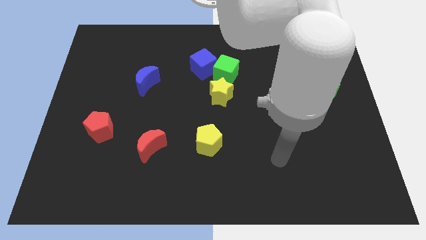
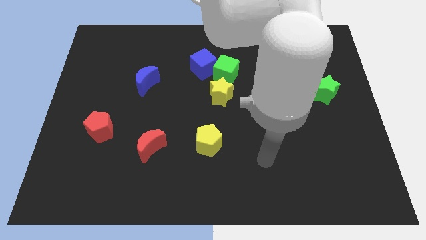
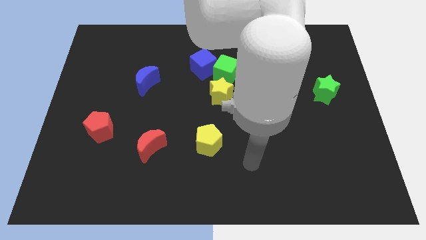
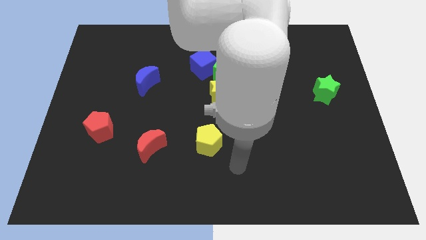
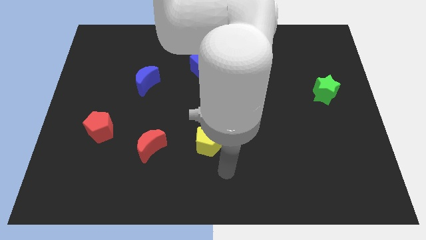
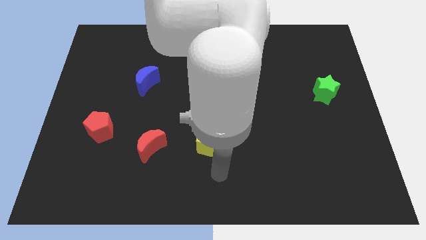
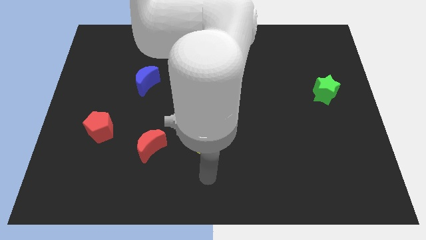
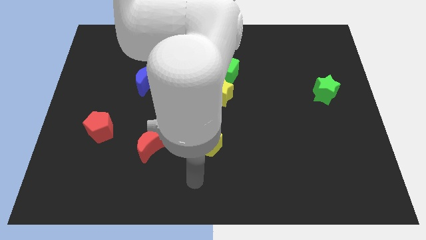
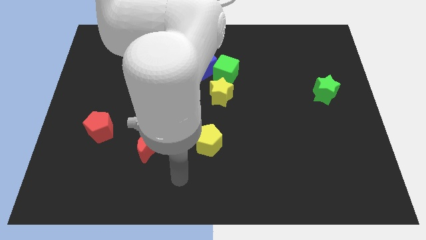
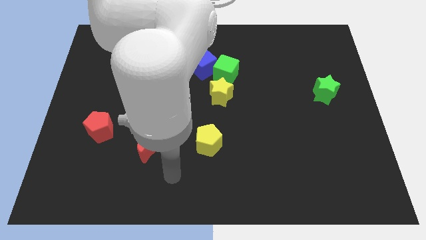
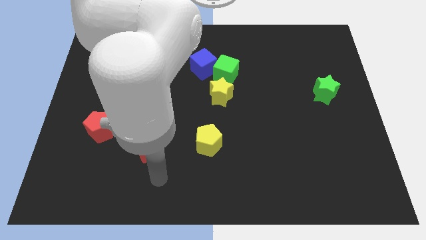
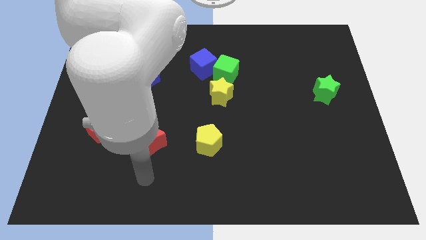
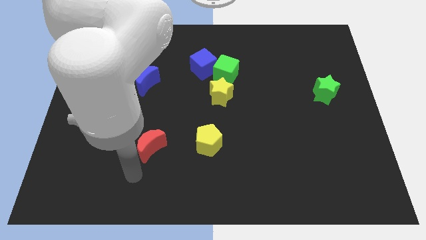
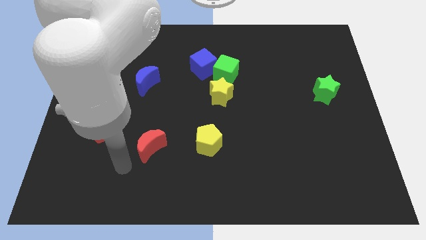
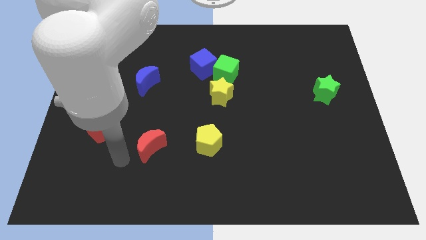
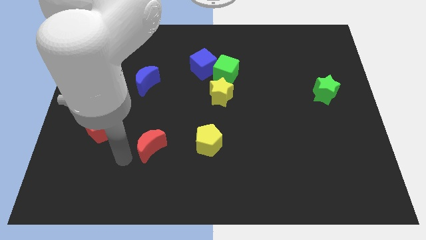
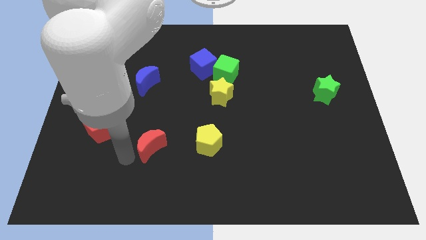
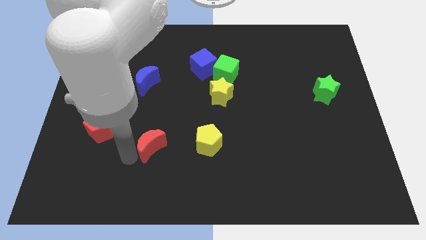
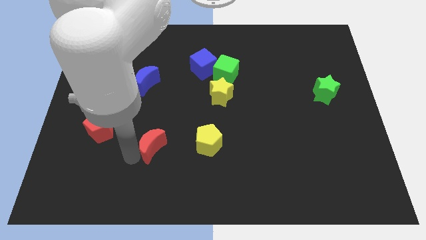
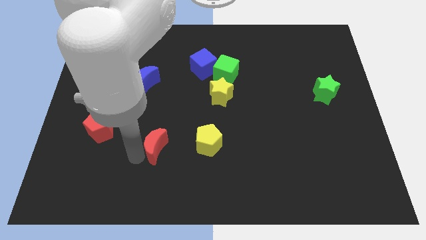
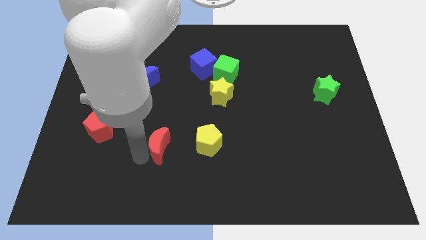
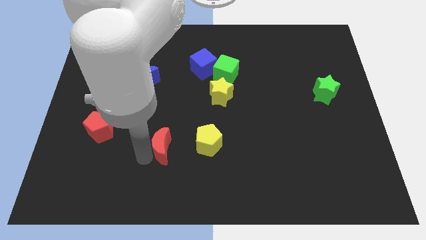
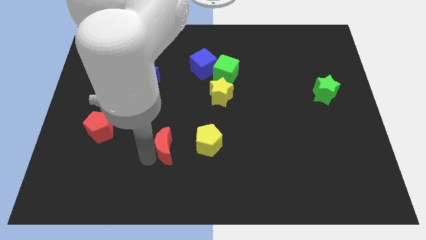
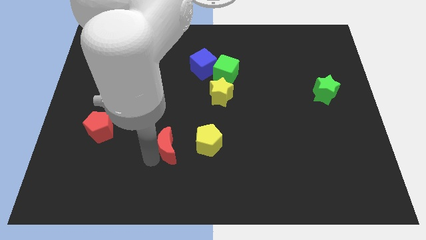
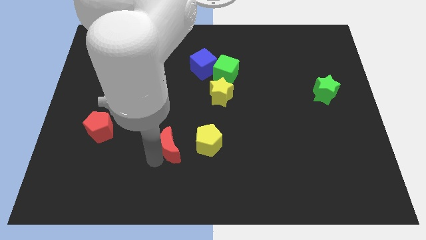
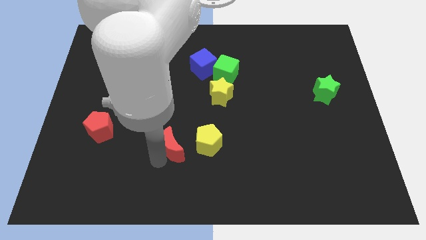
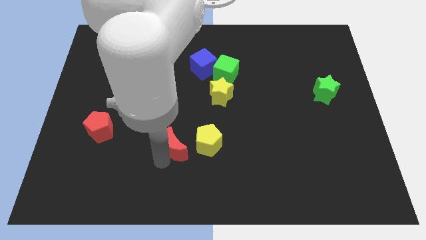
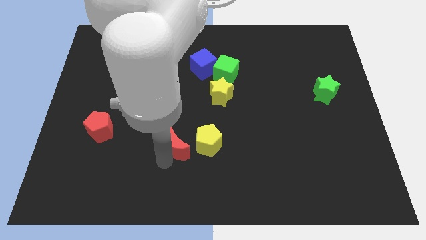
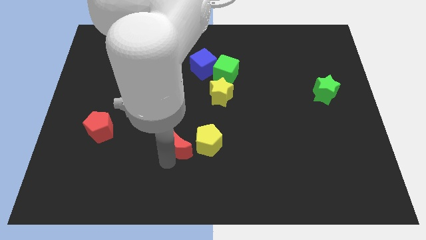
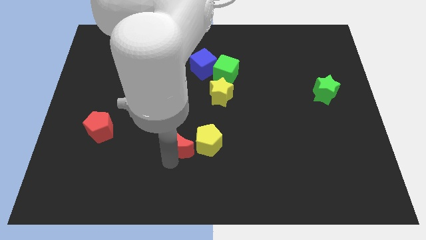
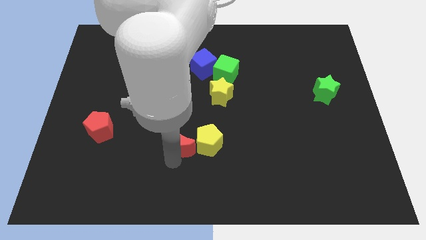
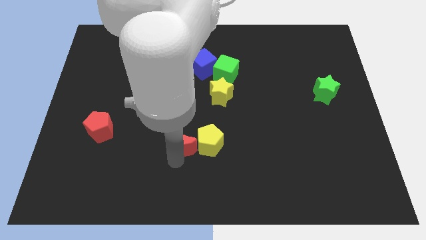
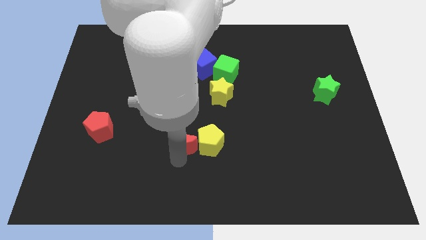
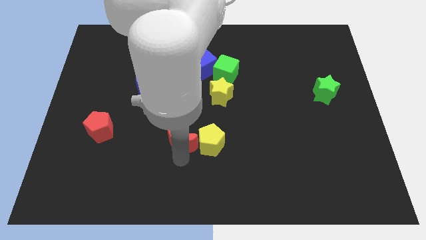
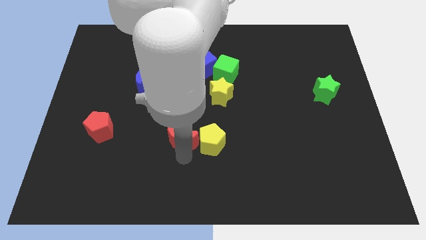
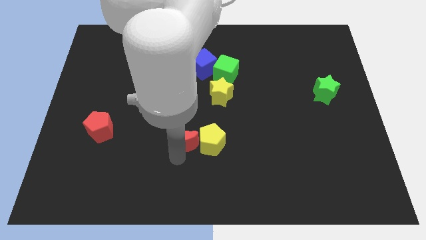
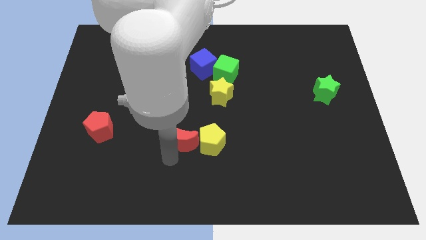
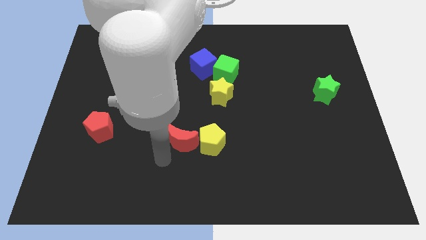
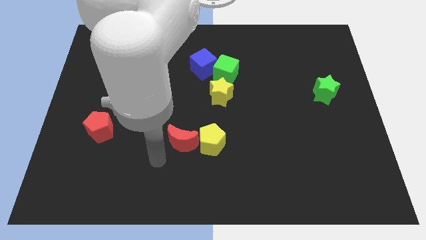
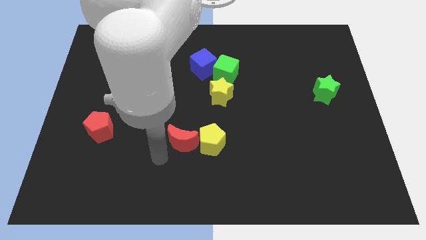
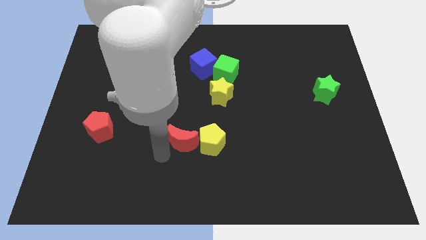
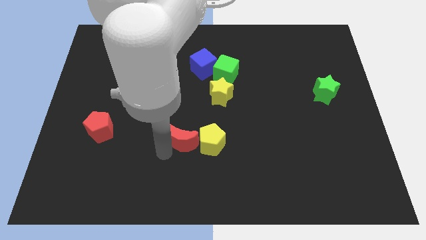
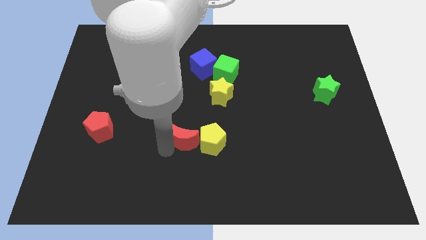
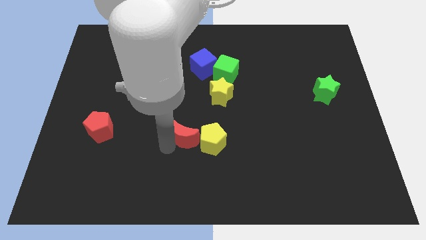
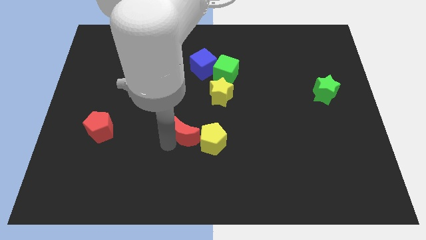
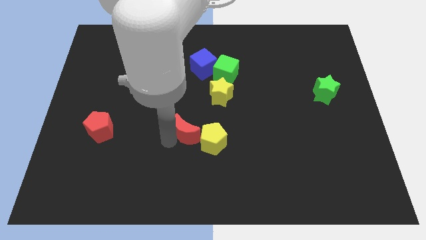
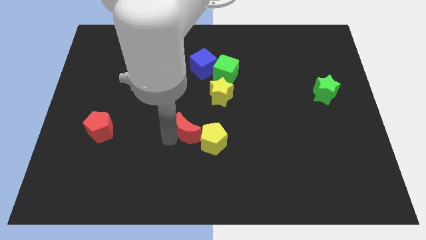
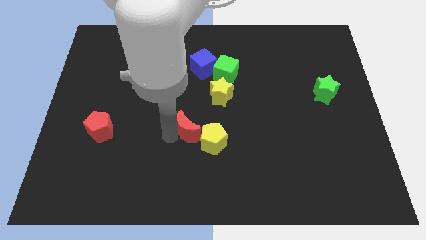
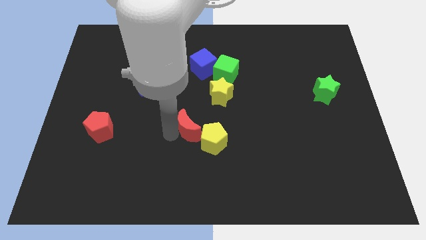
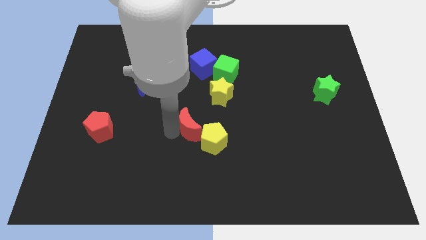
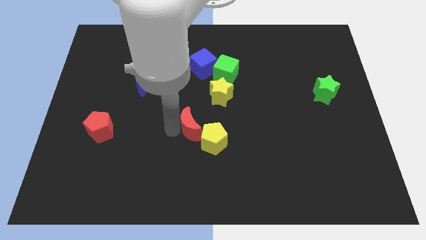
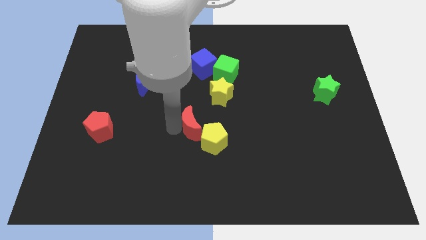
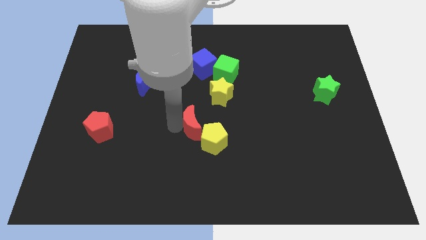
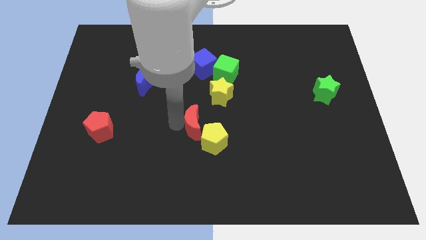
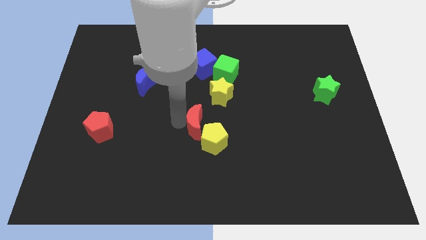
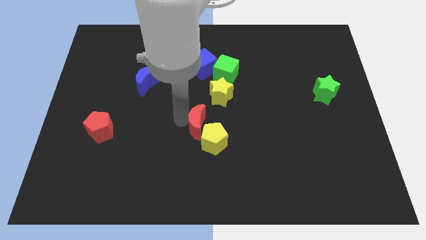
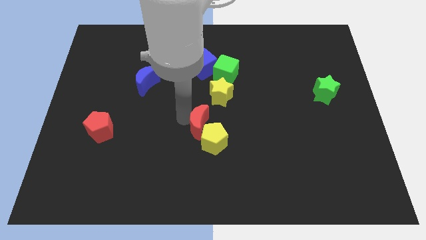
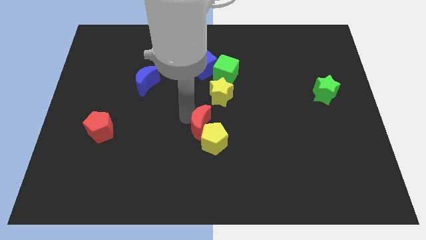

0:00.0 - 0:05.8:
push the red moon below the yellow star

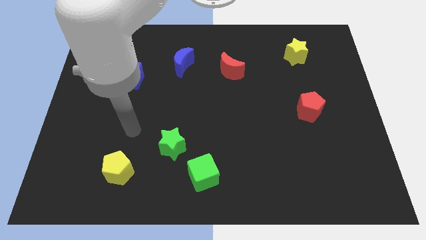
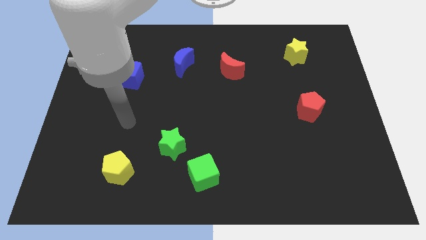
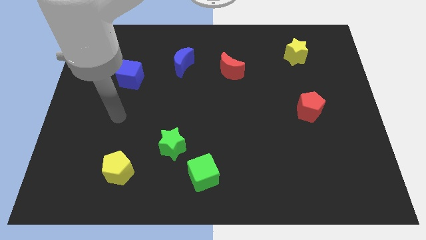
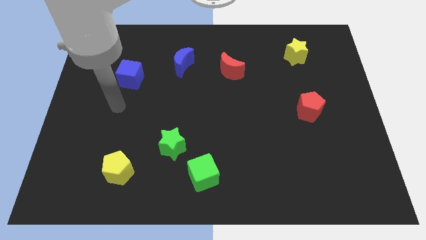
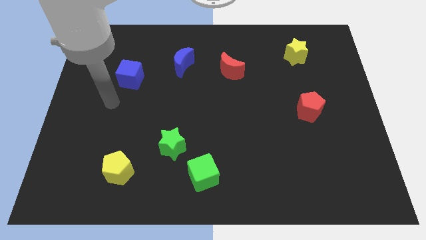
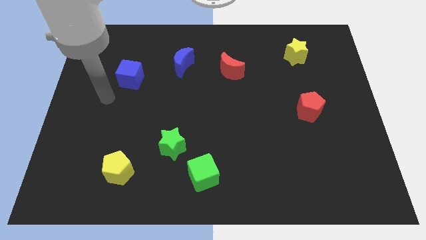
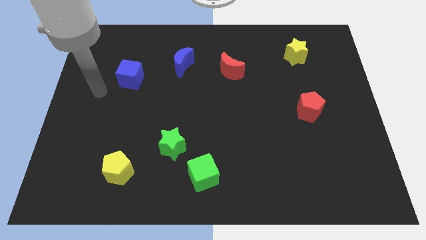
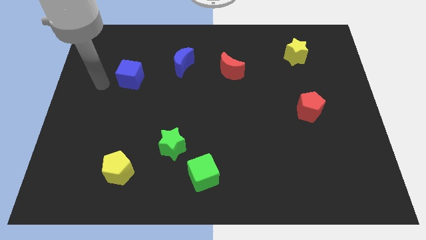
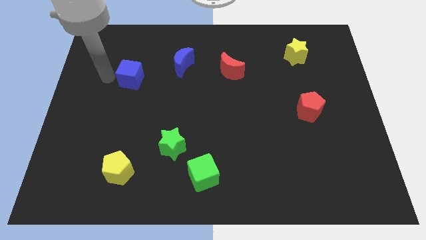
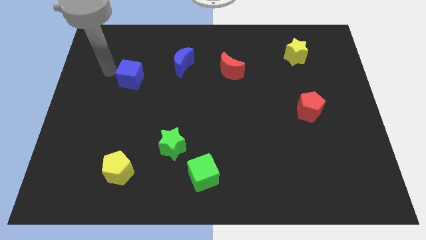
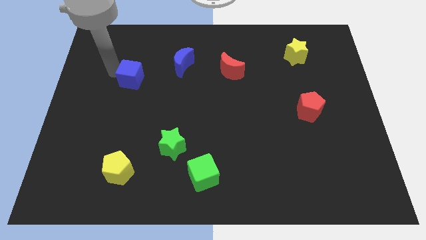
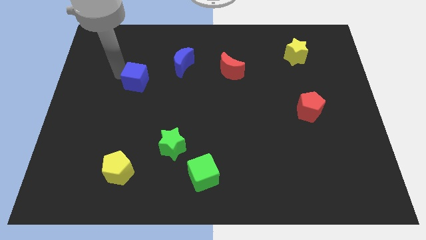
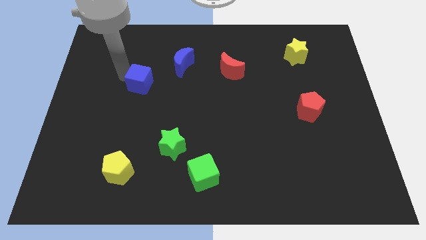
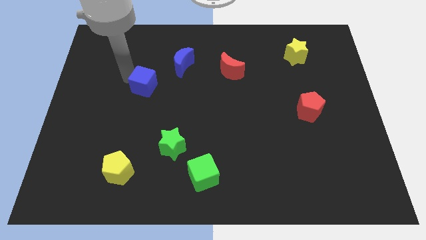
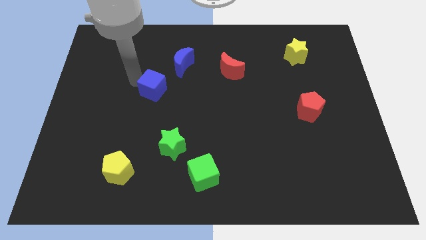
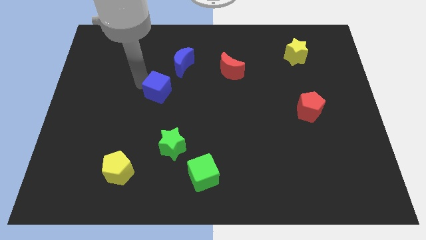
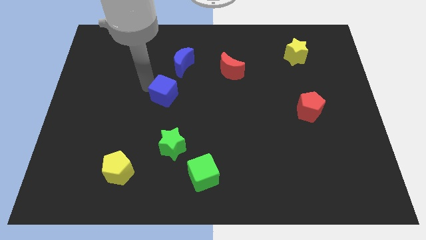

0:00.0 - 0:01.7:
slide the blue cube to the bottom side of the blue moon
